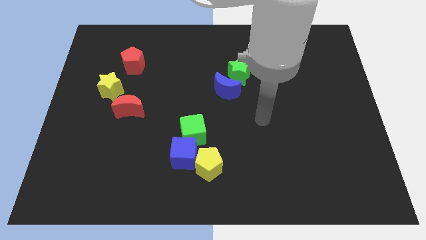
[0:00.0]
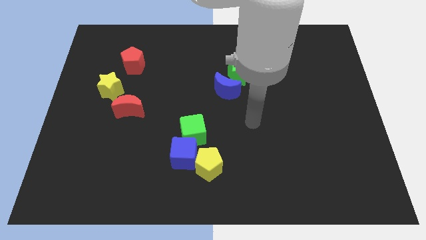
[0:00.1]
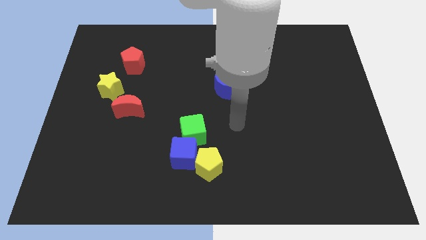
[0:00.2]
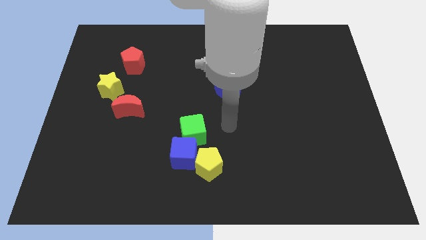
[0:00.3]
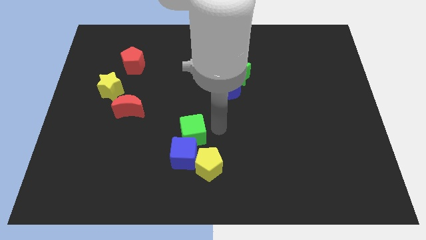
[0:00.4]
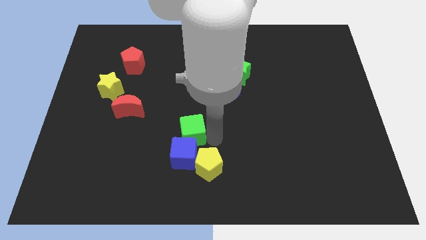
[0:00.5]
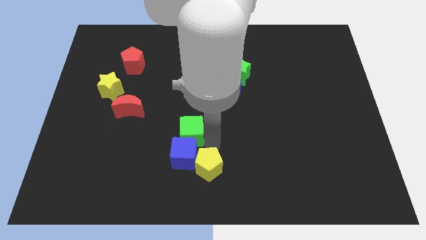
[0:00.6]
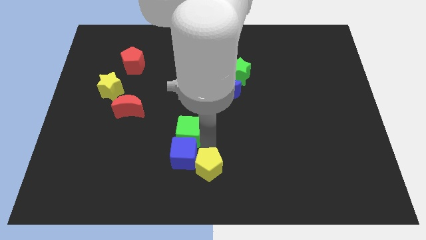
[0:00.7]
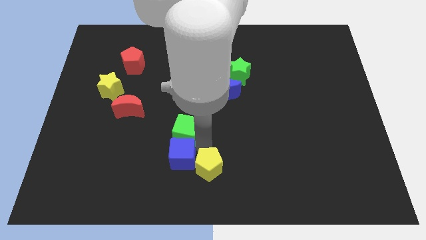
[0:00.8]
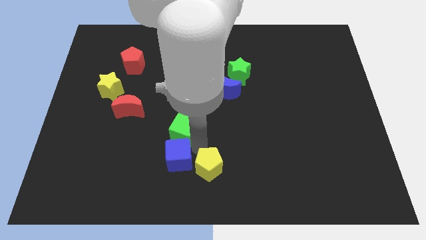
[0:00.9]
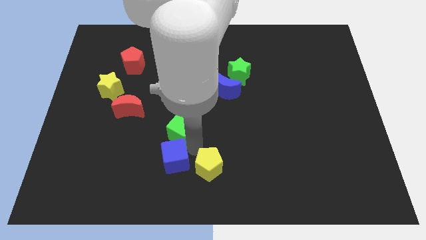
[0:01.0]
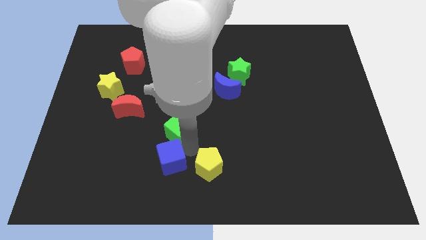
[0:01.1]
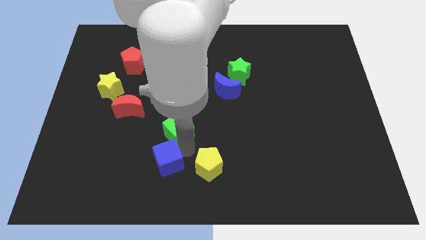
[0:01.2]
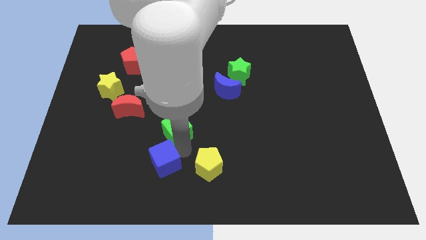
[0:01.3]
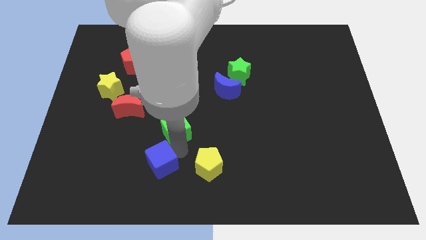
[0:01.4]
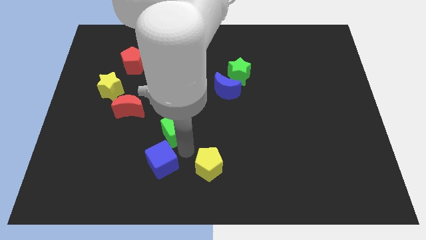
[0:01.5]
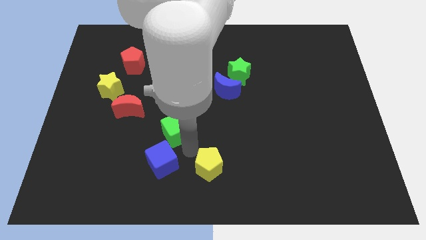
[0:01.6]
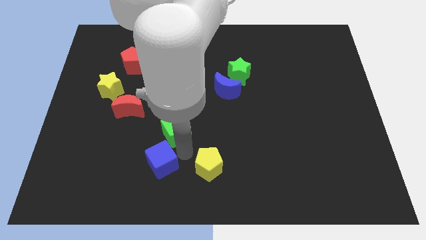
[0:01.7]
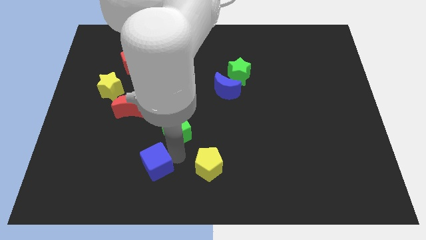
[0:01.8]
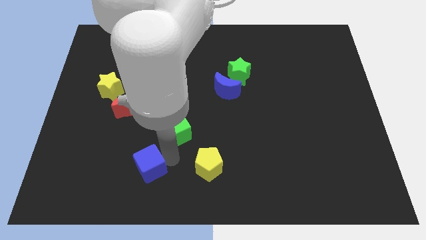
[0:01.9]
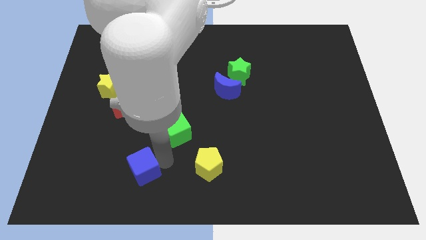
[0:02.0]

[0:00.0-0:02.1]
pull the blue cube apart from the yellow pentagon and green cube

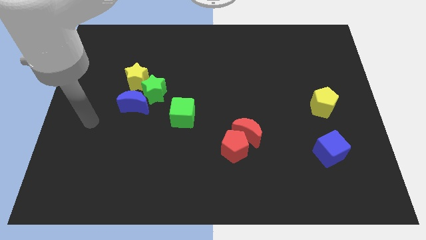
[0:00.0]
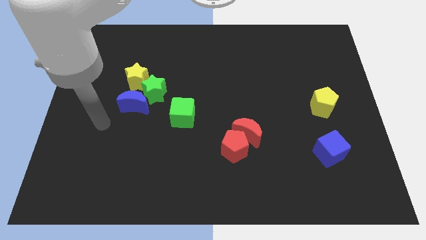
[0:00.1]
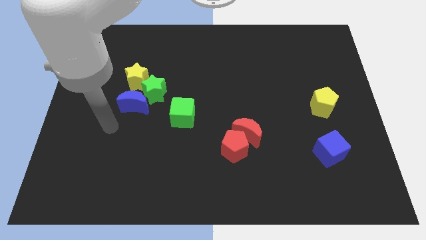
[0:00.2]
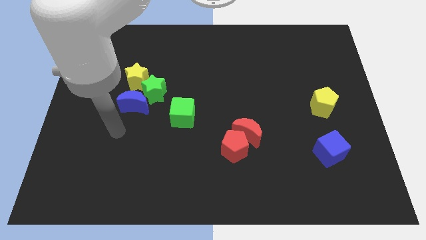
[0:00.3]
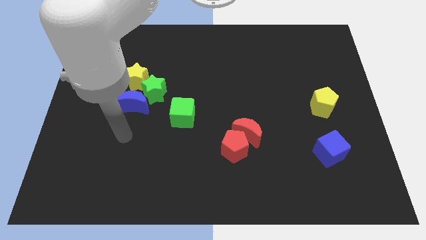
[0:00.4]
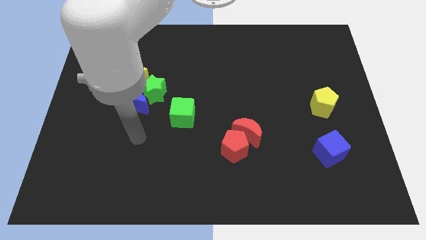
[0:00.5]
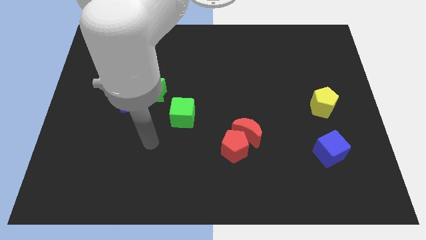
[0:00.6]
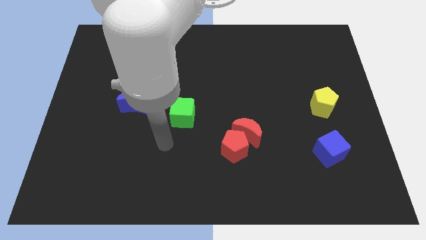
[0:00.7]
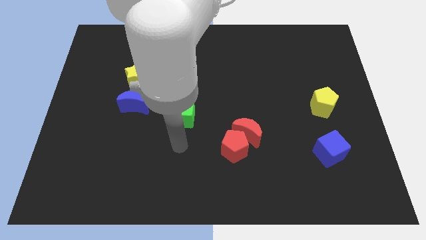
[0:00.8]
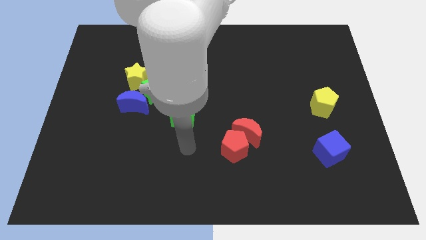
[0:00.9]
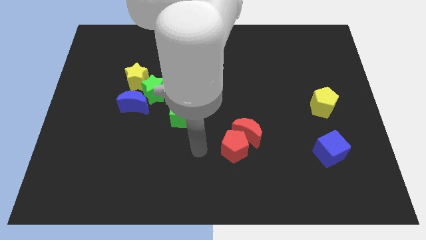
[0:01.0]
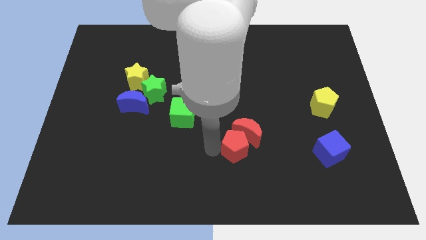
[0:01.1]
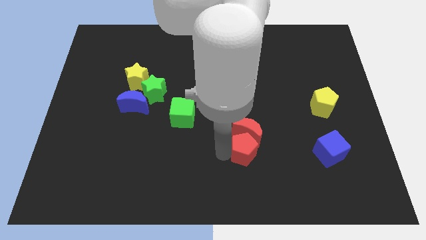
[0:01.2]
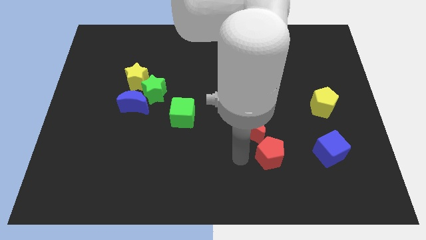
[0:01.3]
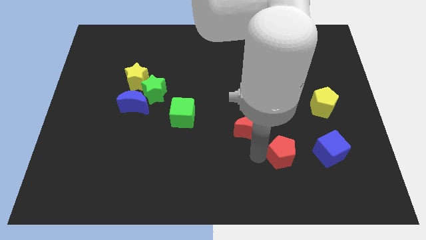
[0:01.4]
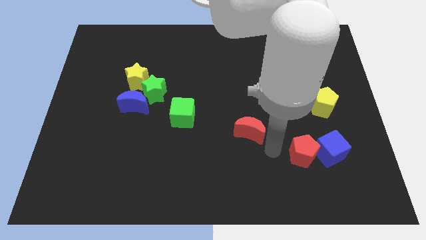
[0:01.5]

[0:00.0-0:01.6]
pull the red moon apart from the red pentagon

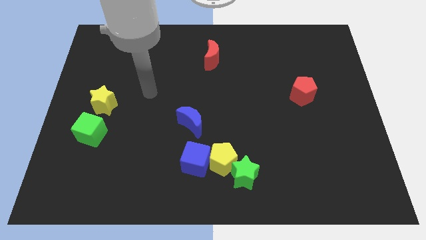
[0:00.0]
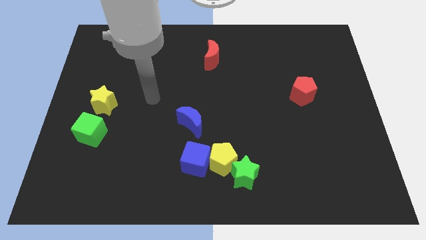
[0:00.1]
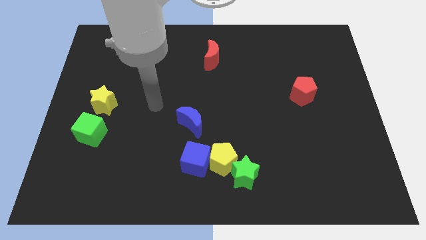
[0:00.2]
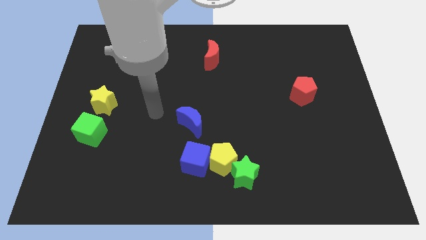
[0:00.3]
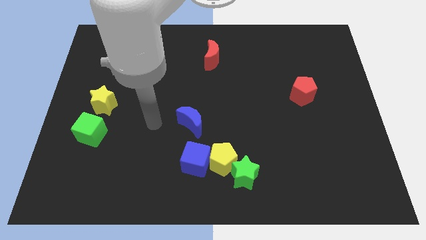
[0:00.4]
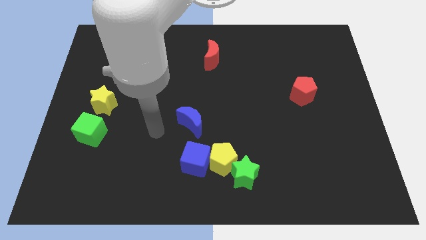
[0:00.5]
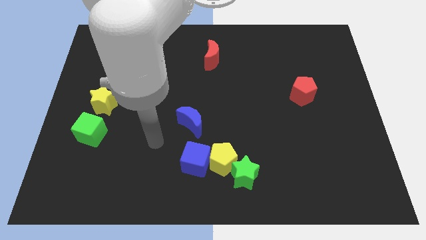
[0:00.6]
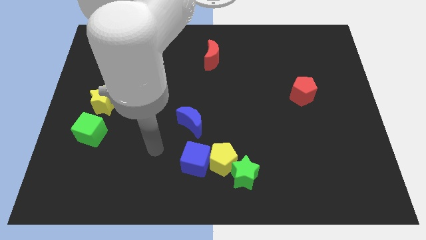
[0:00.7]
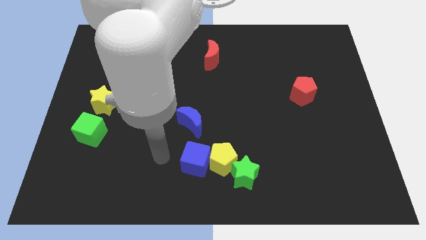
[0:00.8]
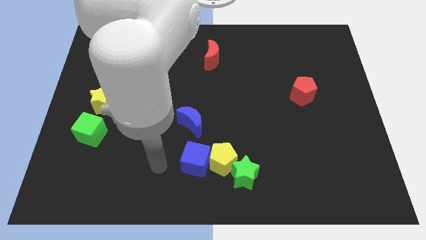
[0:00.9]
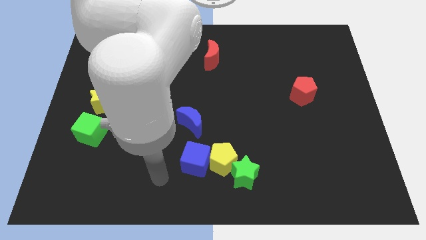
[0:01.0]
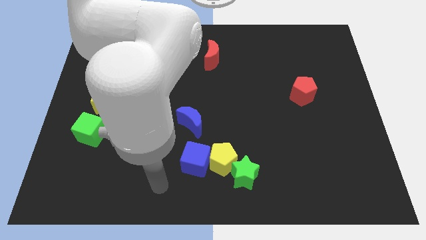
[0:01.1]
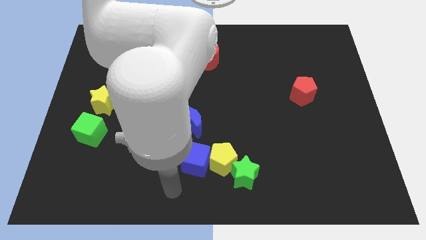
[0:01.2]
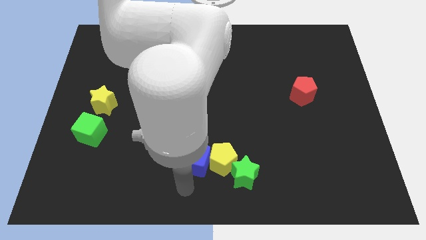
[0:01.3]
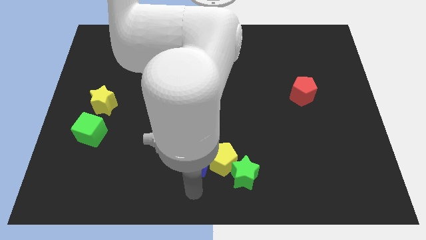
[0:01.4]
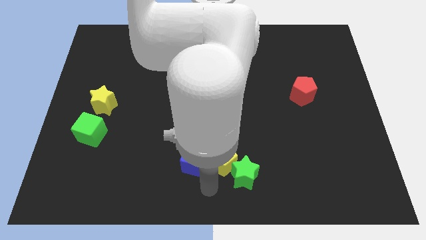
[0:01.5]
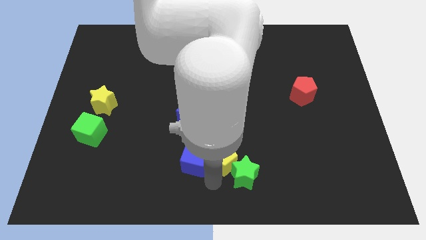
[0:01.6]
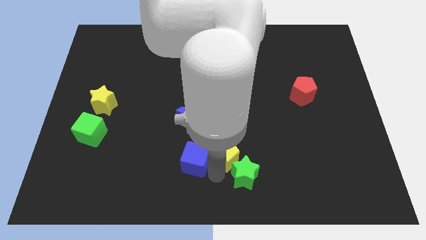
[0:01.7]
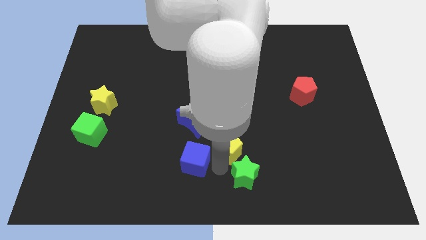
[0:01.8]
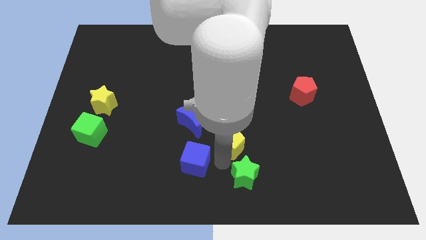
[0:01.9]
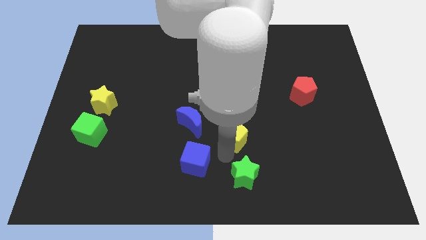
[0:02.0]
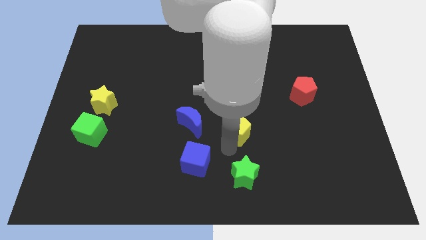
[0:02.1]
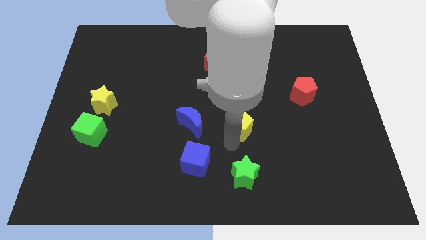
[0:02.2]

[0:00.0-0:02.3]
pull the yellow pentagon apart from the green star and blue cube

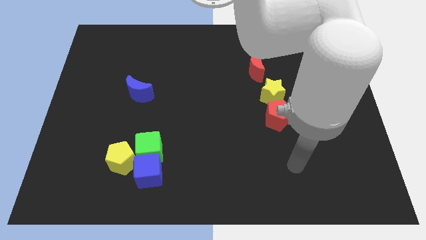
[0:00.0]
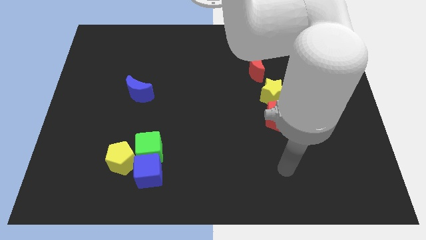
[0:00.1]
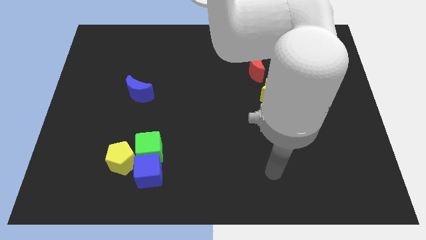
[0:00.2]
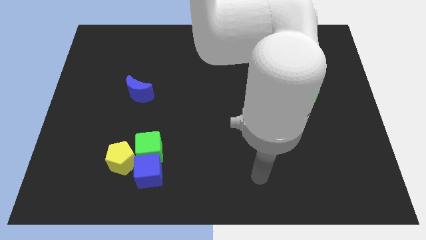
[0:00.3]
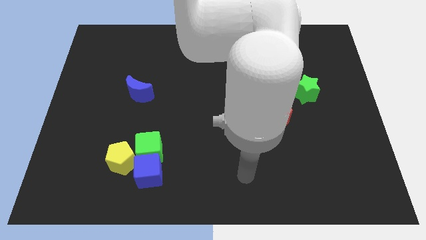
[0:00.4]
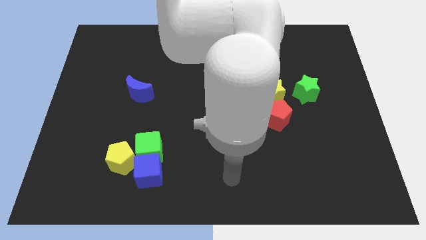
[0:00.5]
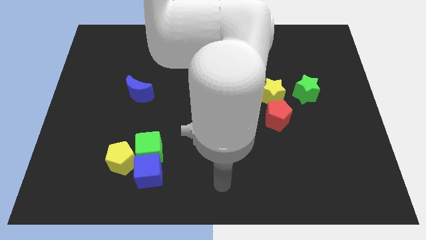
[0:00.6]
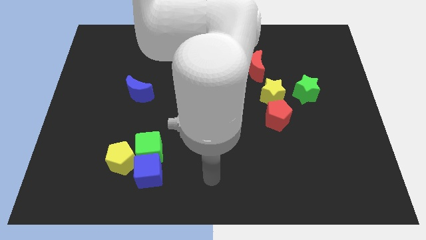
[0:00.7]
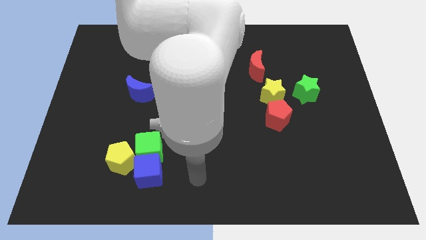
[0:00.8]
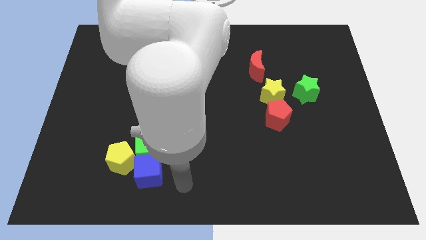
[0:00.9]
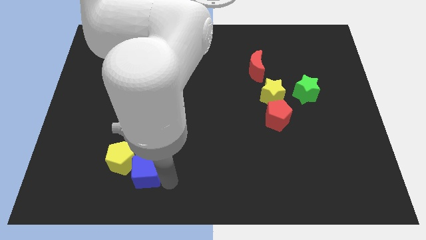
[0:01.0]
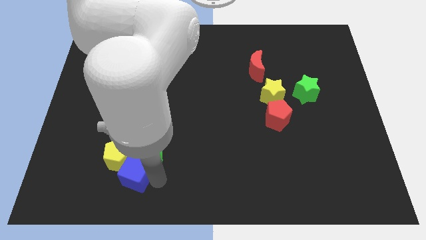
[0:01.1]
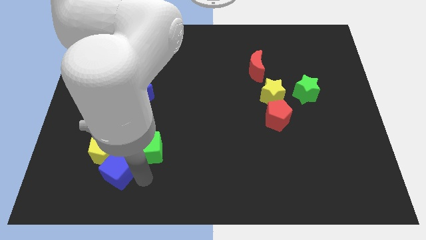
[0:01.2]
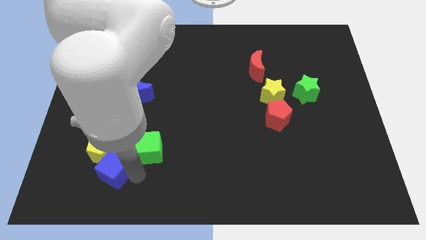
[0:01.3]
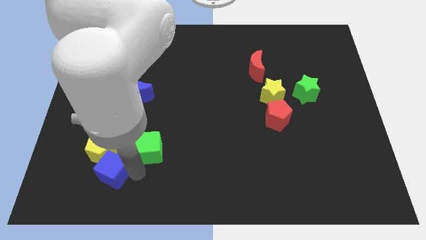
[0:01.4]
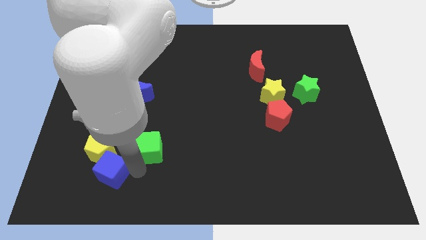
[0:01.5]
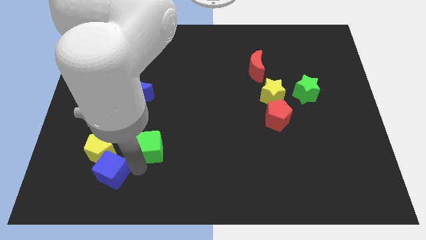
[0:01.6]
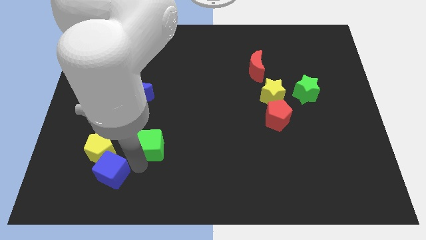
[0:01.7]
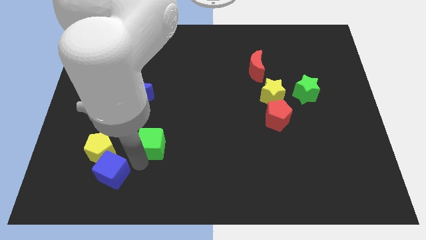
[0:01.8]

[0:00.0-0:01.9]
pull the green cube apart from the blue cube and yellow pentagon

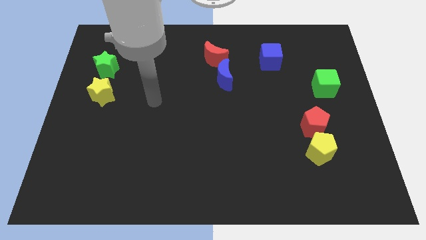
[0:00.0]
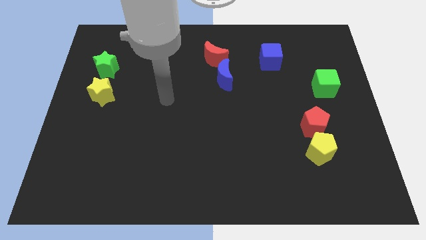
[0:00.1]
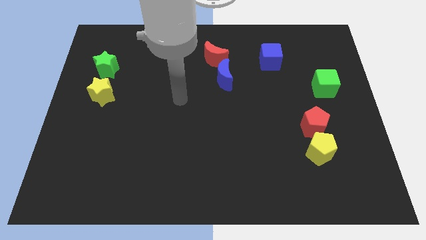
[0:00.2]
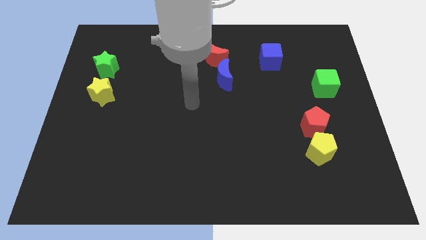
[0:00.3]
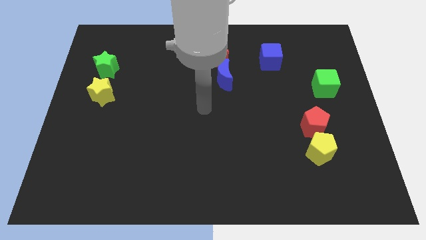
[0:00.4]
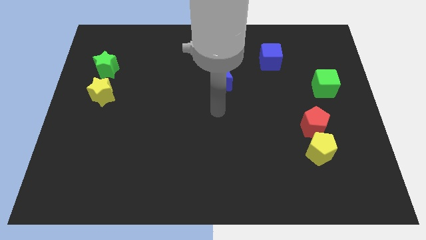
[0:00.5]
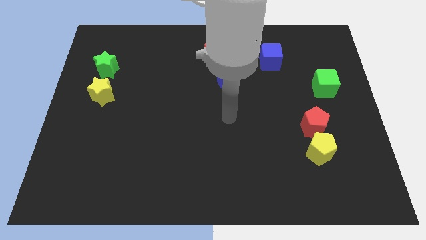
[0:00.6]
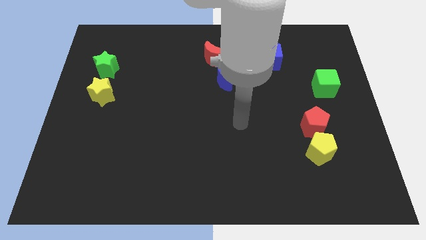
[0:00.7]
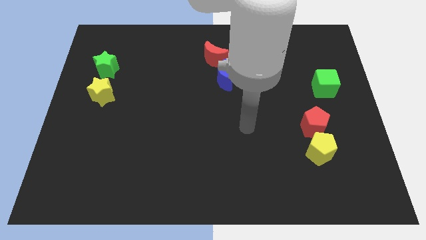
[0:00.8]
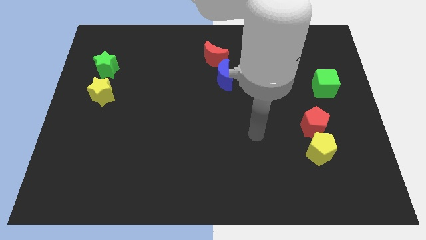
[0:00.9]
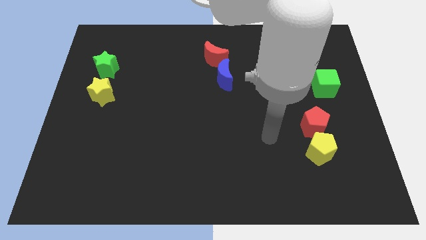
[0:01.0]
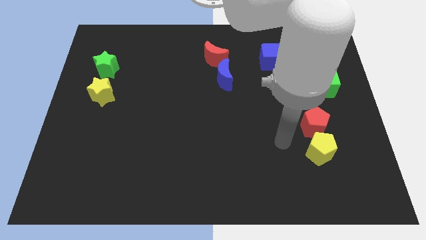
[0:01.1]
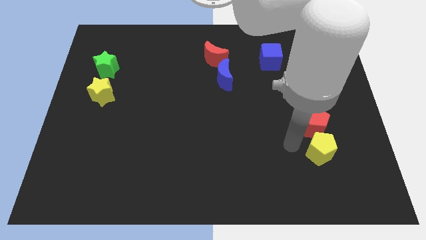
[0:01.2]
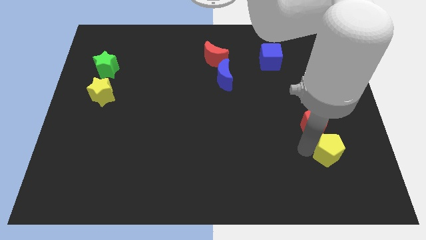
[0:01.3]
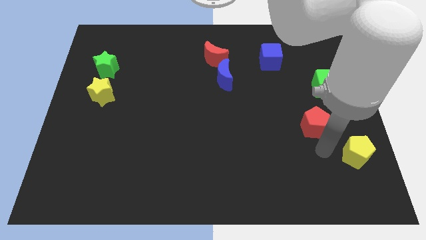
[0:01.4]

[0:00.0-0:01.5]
move the red pentagon away from the yellow pentagon
